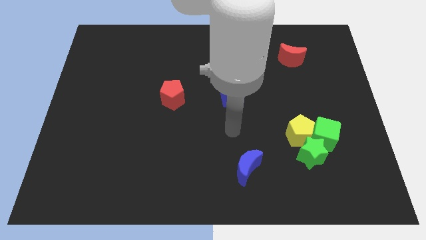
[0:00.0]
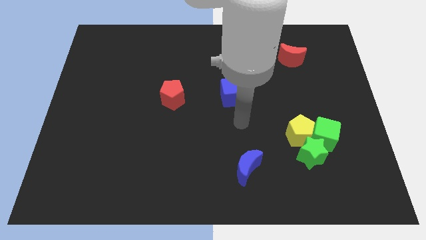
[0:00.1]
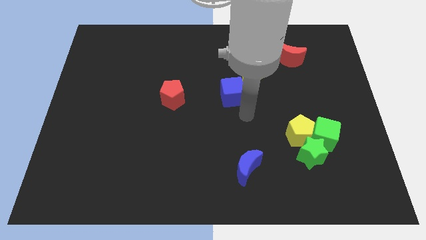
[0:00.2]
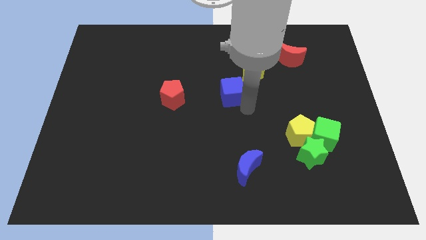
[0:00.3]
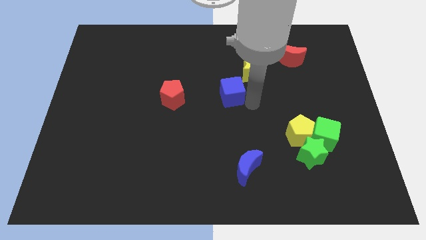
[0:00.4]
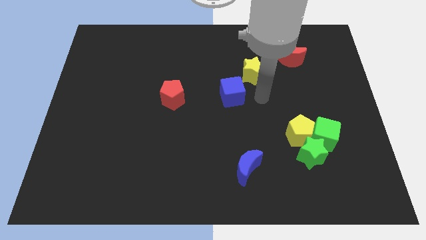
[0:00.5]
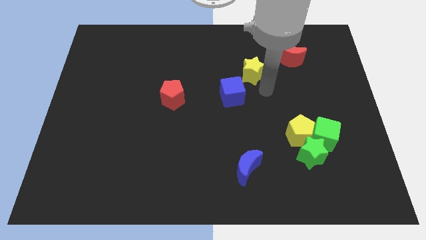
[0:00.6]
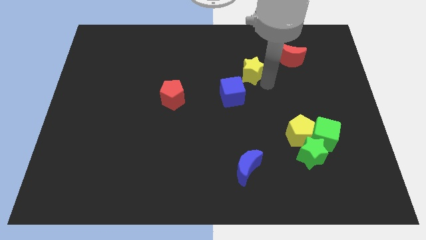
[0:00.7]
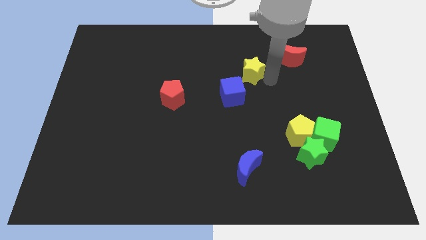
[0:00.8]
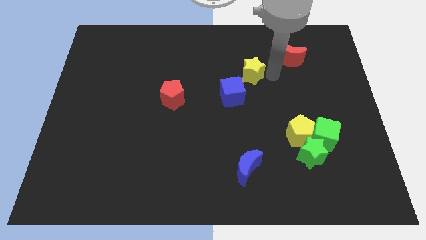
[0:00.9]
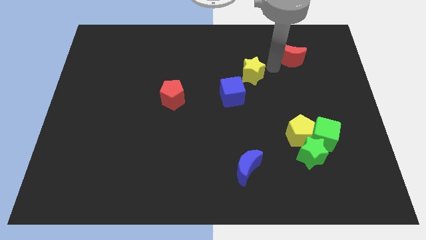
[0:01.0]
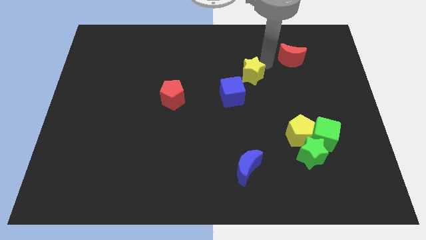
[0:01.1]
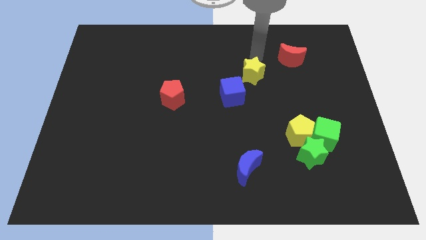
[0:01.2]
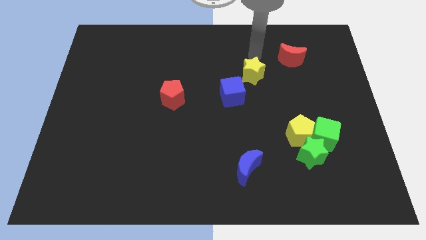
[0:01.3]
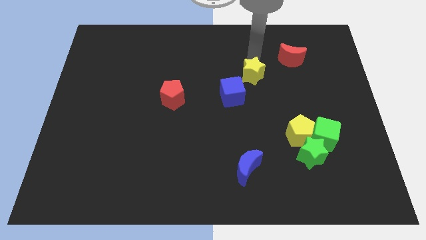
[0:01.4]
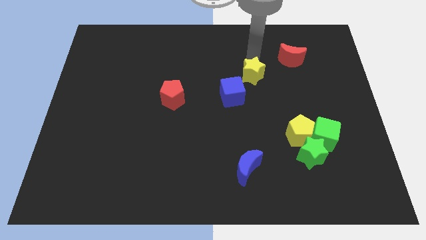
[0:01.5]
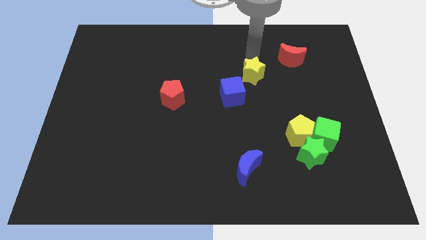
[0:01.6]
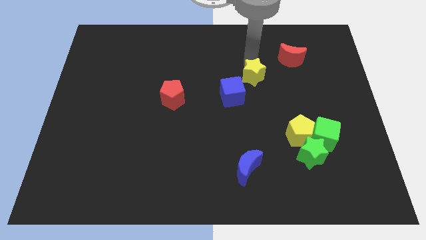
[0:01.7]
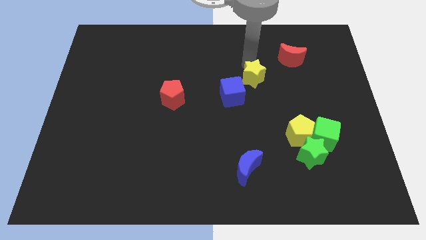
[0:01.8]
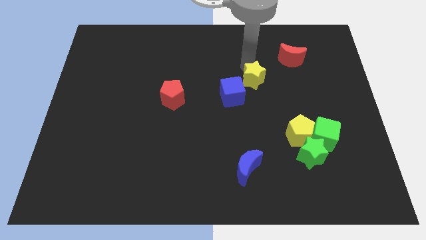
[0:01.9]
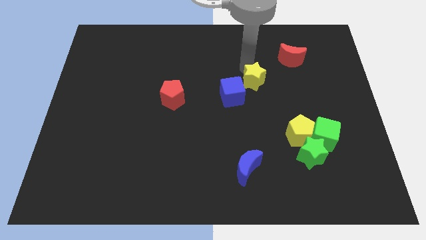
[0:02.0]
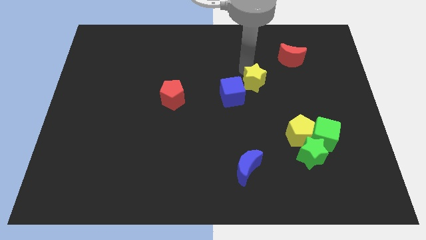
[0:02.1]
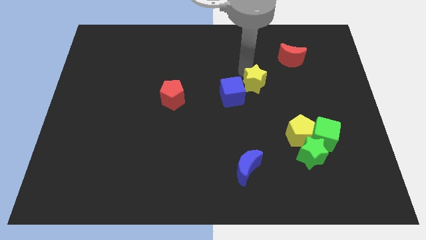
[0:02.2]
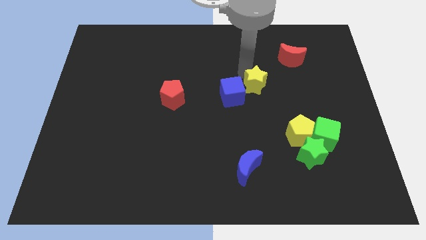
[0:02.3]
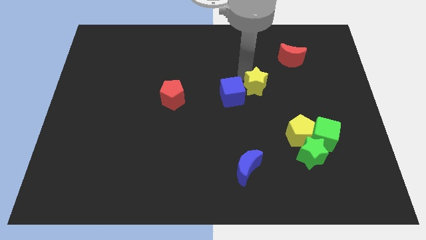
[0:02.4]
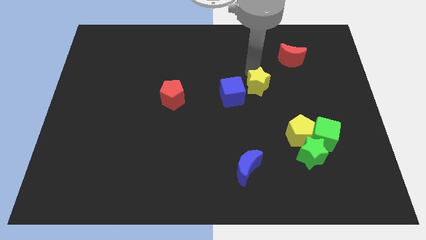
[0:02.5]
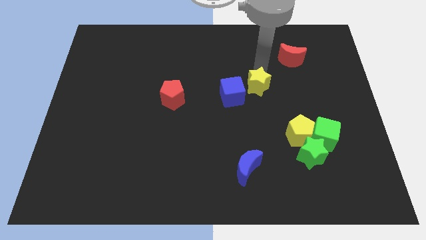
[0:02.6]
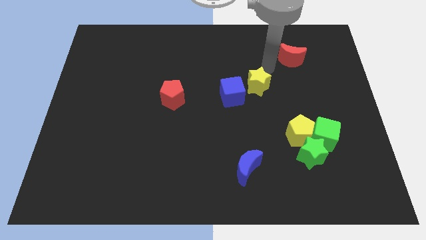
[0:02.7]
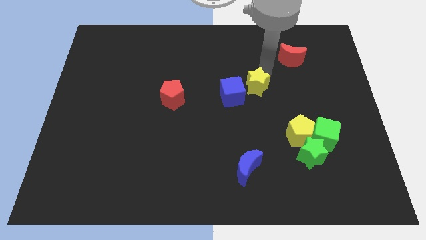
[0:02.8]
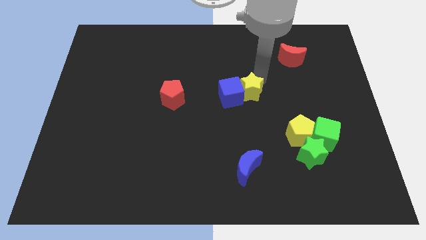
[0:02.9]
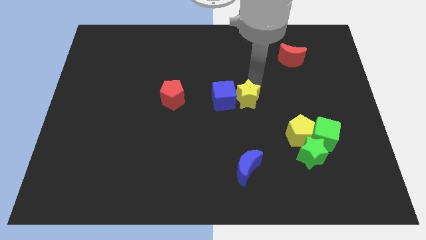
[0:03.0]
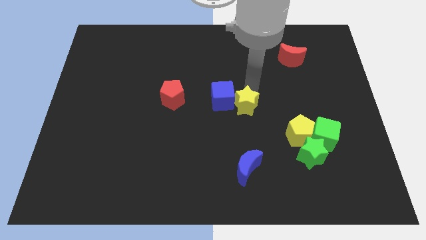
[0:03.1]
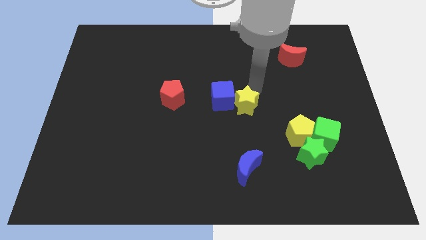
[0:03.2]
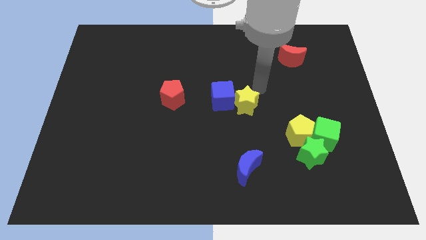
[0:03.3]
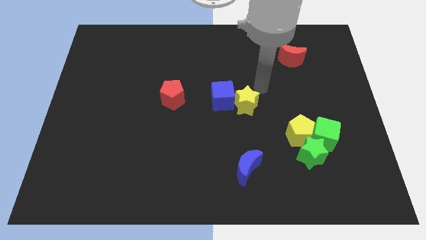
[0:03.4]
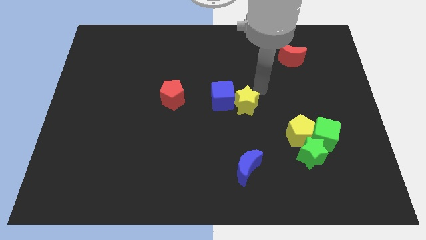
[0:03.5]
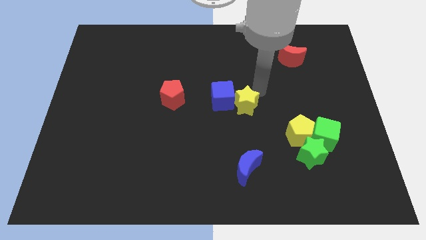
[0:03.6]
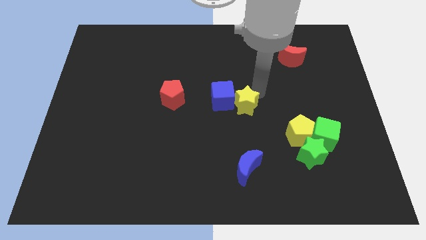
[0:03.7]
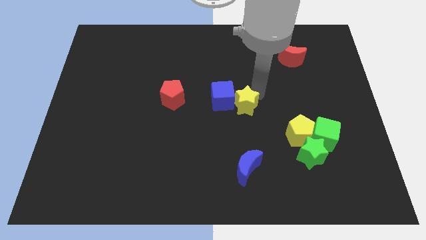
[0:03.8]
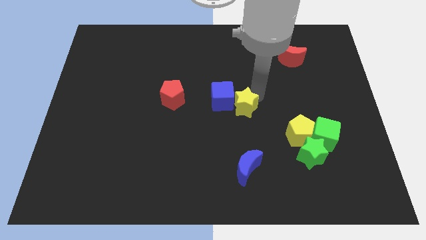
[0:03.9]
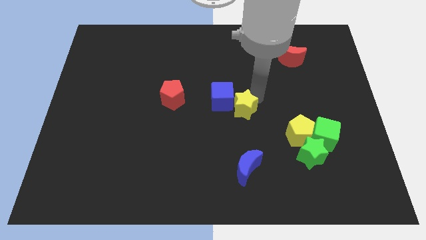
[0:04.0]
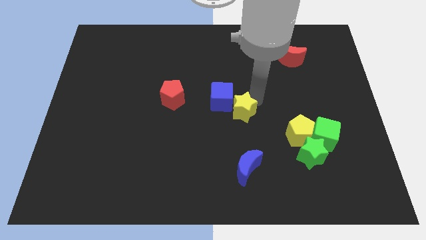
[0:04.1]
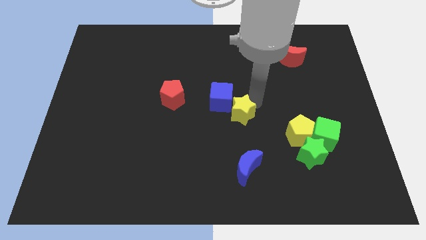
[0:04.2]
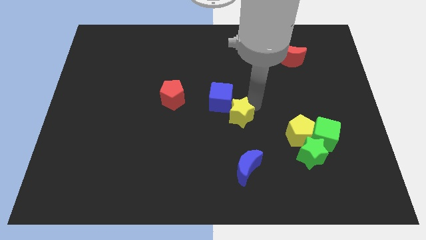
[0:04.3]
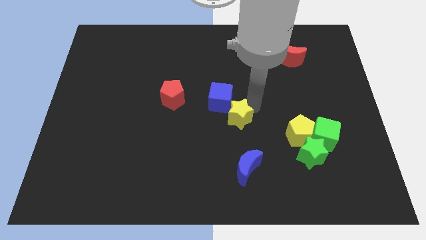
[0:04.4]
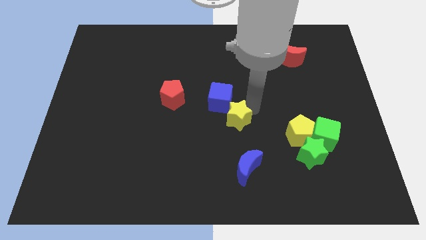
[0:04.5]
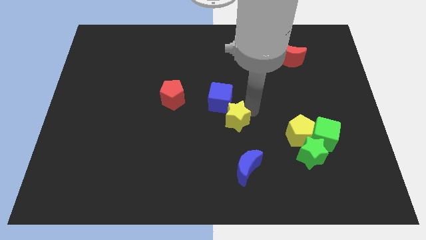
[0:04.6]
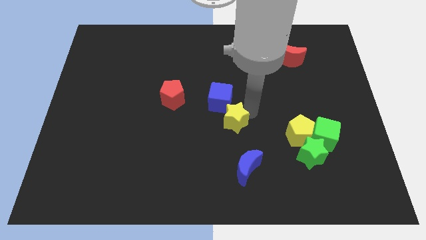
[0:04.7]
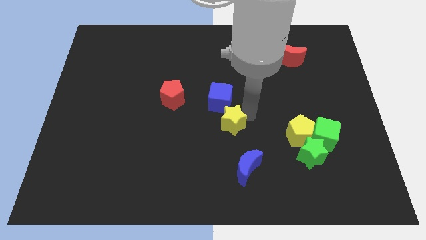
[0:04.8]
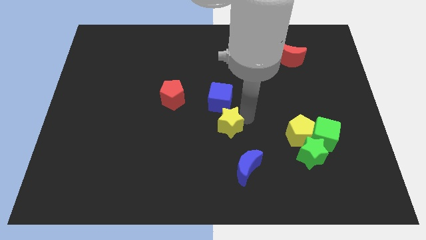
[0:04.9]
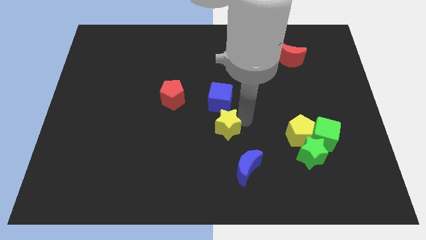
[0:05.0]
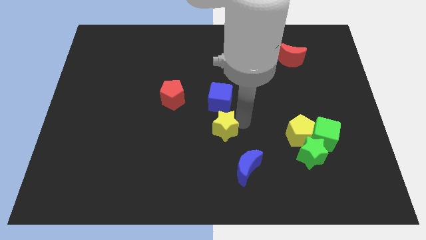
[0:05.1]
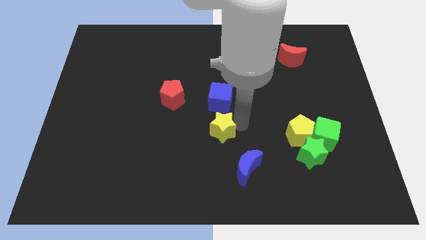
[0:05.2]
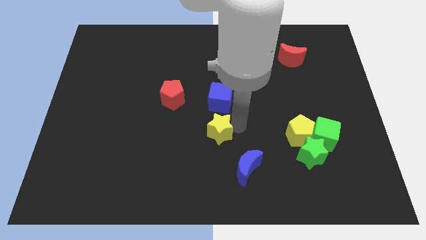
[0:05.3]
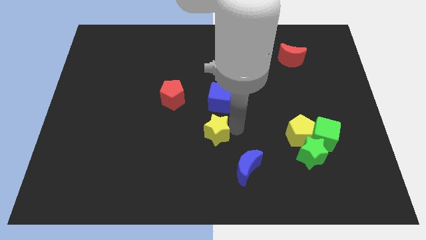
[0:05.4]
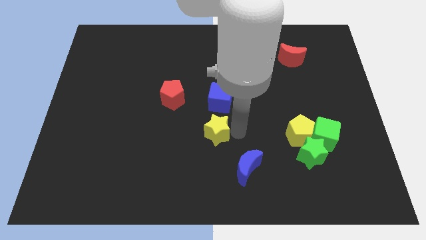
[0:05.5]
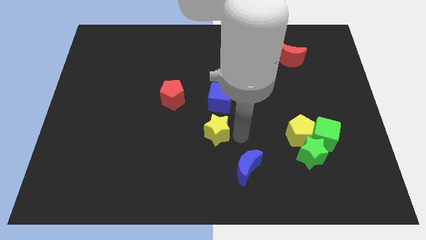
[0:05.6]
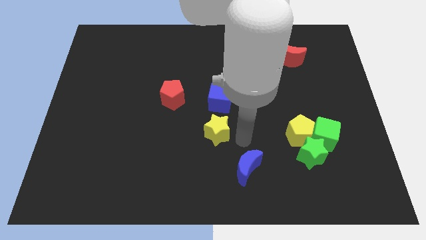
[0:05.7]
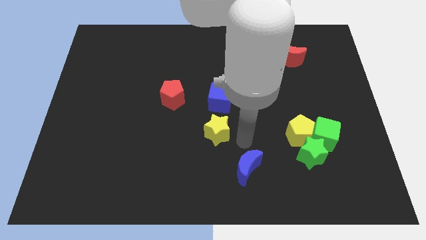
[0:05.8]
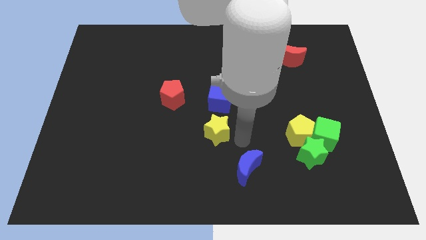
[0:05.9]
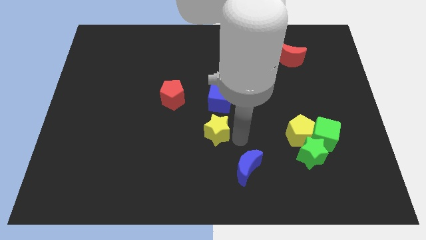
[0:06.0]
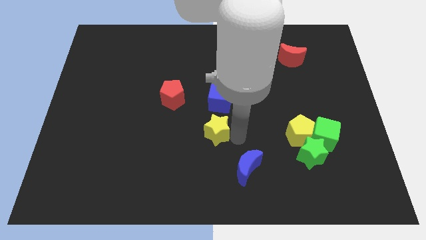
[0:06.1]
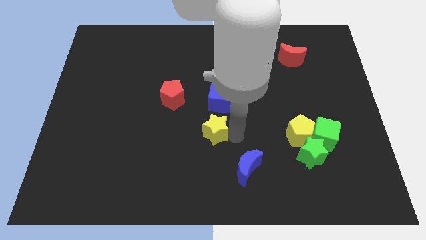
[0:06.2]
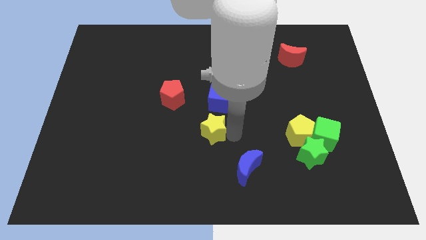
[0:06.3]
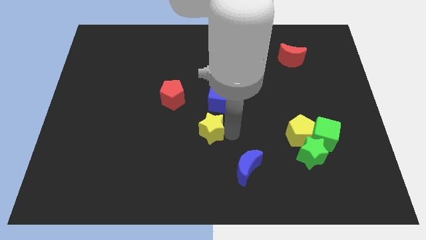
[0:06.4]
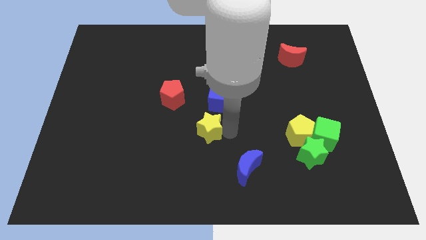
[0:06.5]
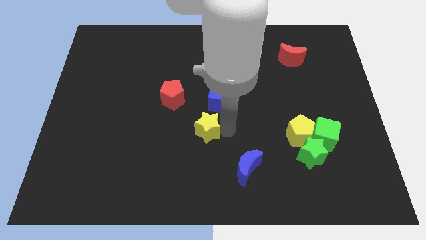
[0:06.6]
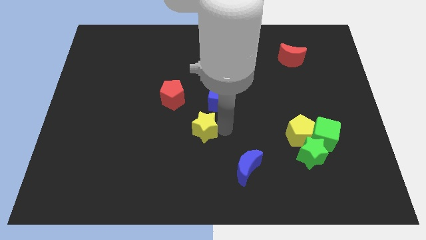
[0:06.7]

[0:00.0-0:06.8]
push the yellow star down and left diagonally

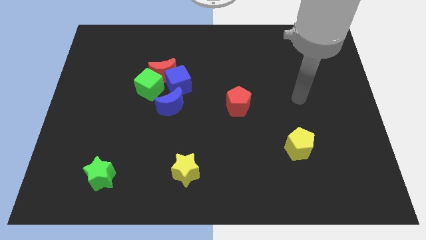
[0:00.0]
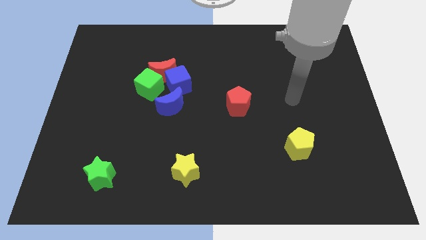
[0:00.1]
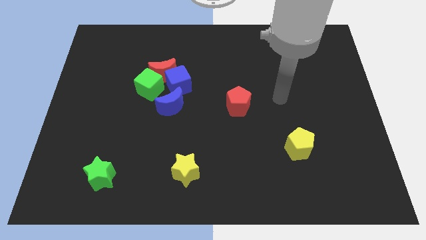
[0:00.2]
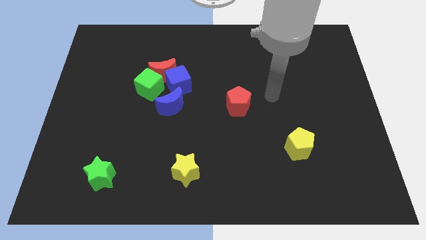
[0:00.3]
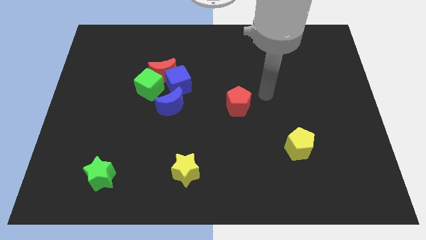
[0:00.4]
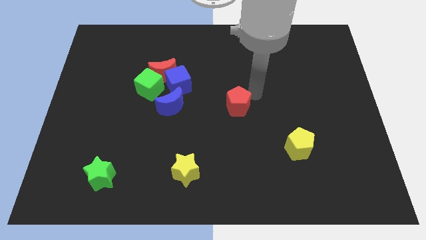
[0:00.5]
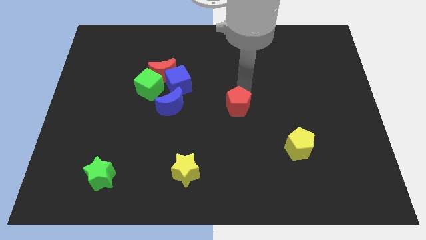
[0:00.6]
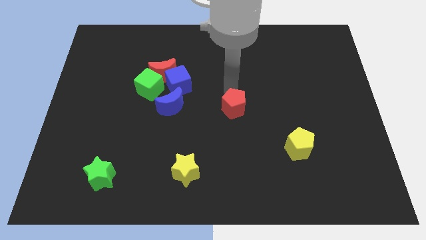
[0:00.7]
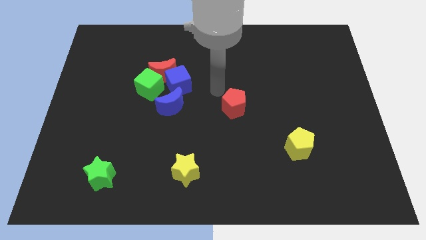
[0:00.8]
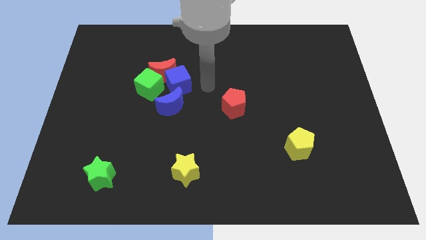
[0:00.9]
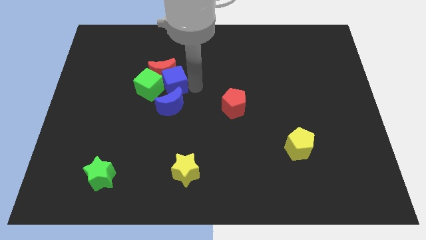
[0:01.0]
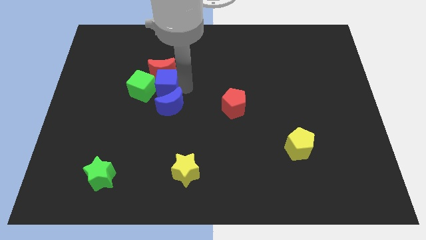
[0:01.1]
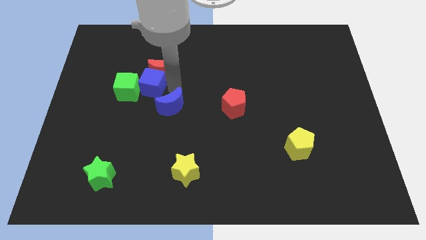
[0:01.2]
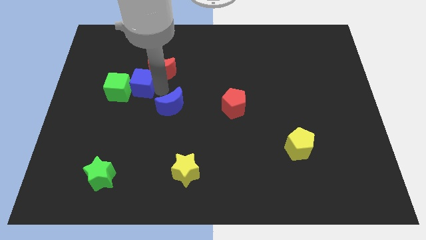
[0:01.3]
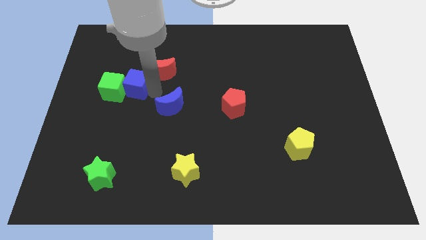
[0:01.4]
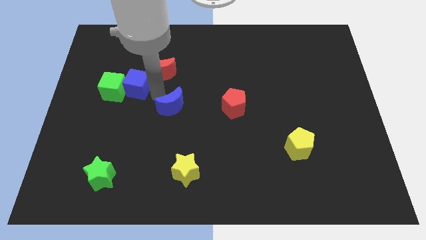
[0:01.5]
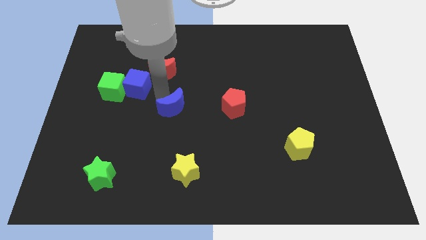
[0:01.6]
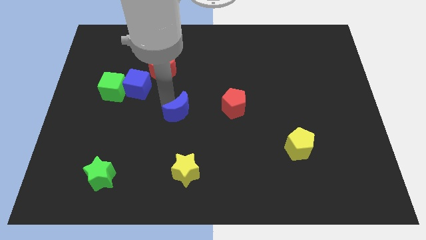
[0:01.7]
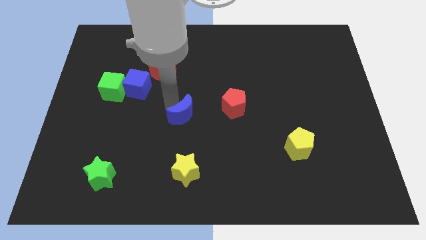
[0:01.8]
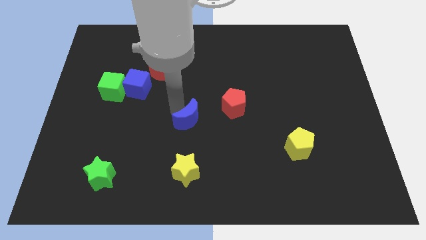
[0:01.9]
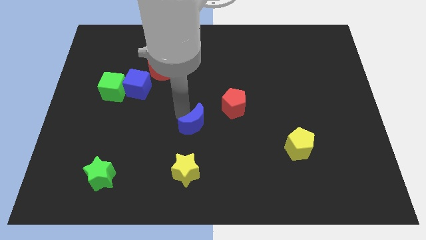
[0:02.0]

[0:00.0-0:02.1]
slide the blue moon a bit downwards and to the right diagonally
